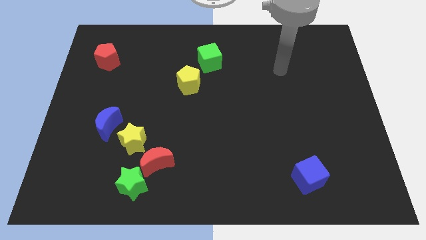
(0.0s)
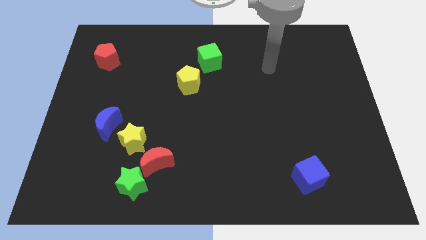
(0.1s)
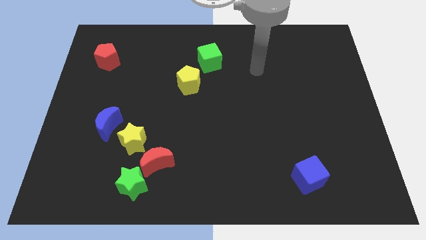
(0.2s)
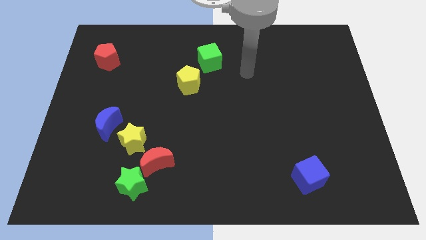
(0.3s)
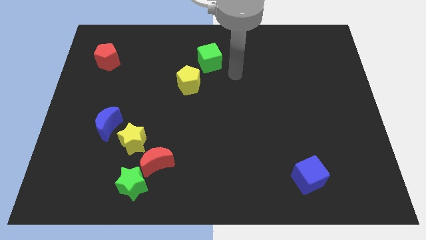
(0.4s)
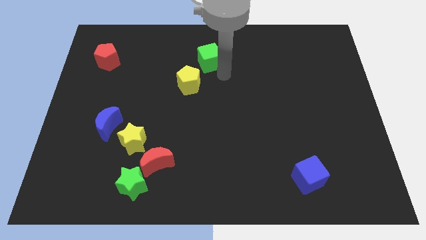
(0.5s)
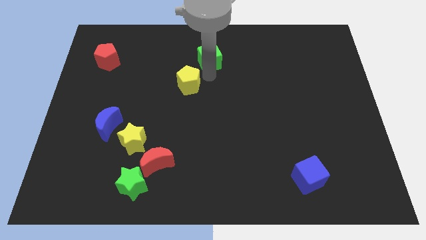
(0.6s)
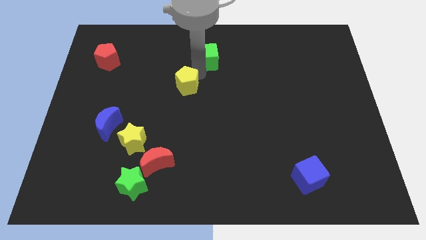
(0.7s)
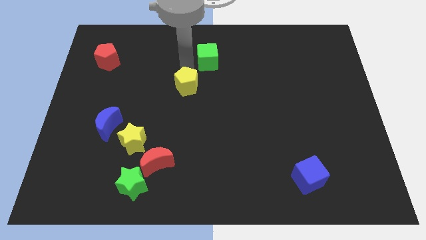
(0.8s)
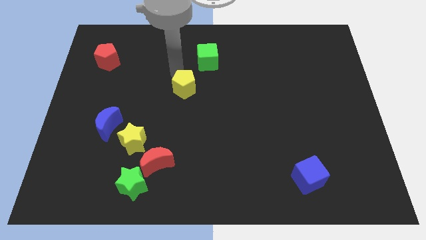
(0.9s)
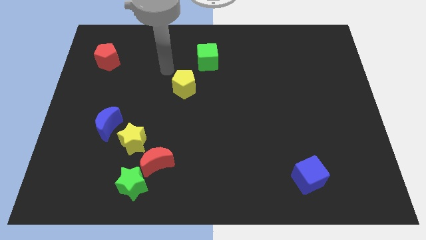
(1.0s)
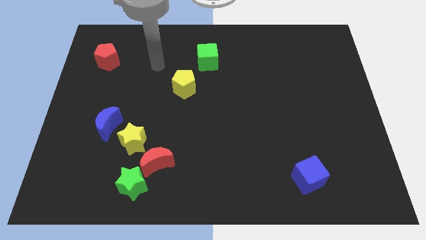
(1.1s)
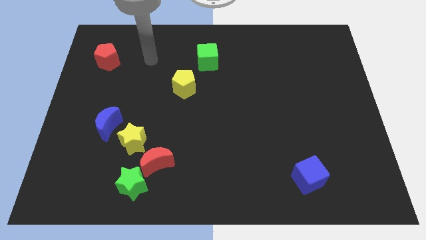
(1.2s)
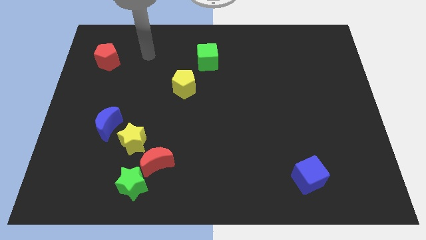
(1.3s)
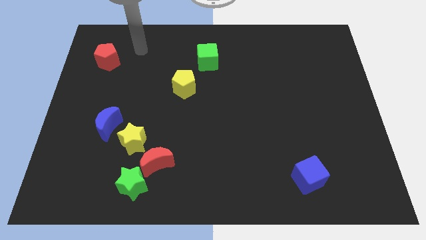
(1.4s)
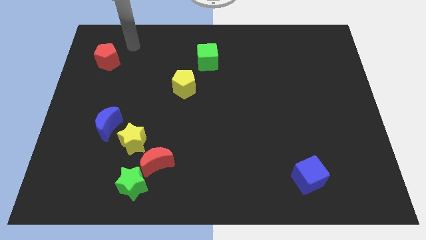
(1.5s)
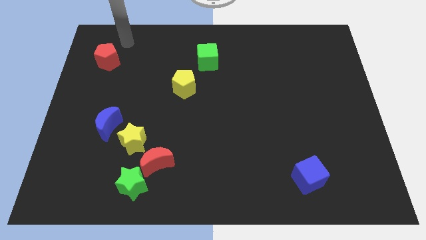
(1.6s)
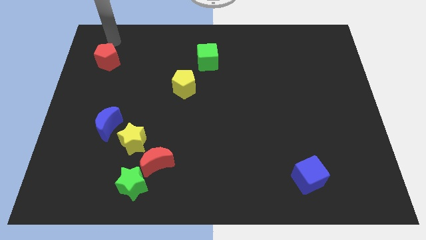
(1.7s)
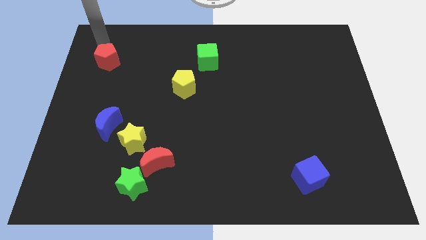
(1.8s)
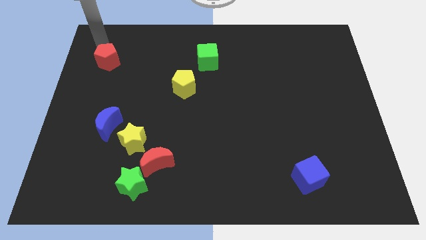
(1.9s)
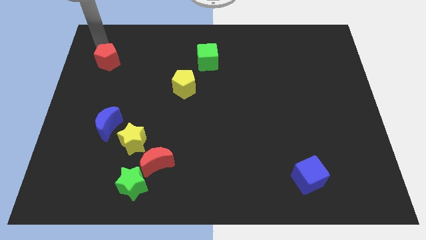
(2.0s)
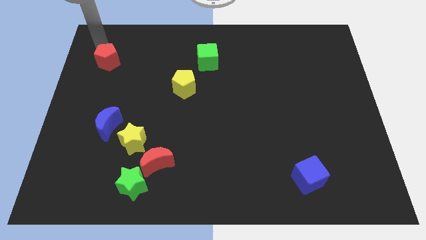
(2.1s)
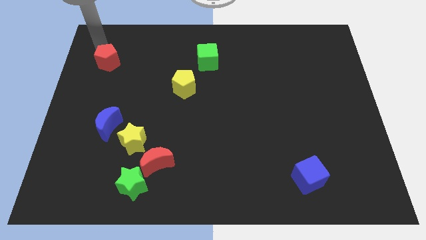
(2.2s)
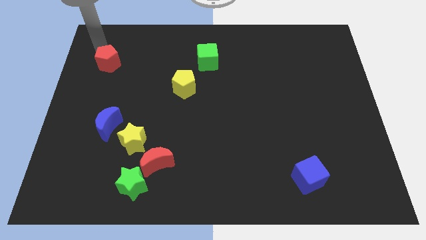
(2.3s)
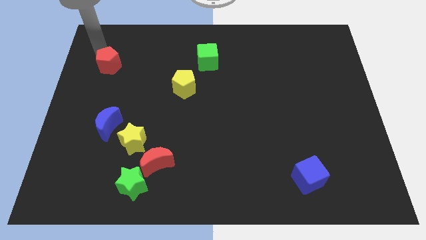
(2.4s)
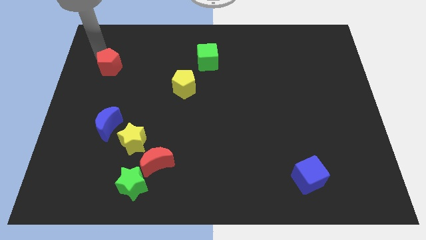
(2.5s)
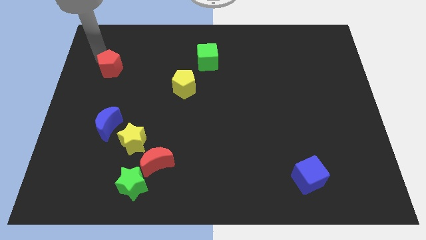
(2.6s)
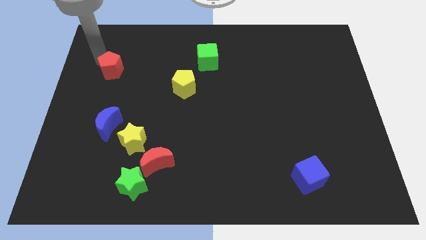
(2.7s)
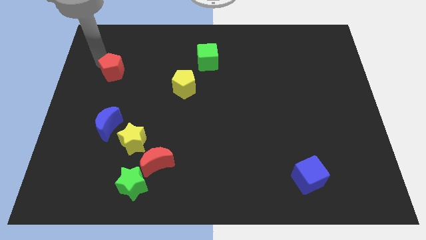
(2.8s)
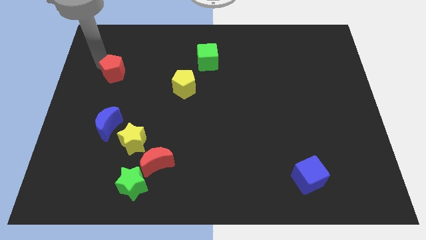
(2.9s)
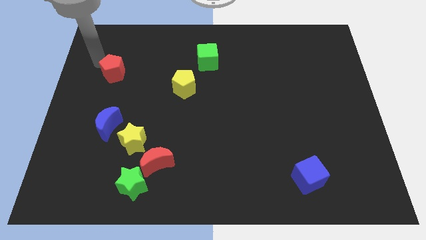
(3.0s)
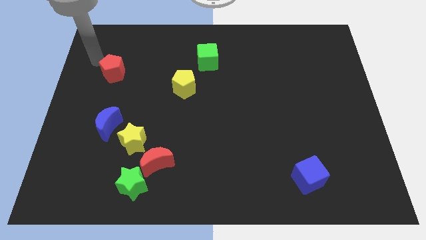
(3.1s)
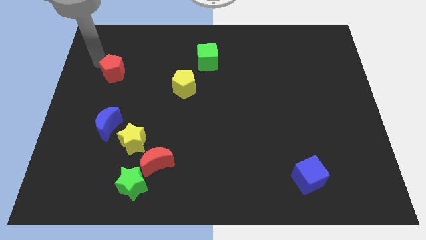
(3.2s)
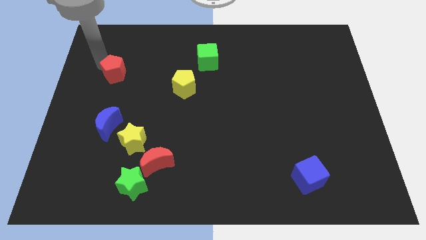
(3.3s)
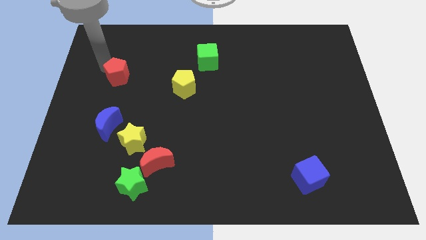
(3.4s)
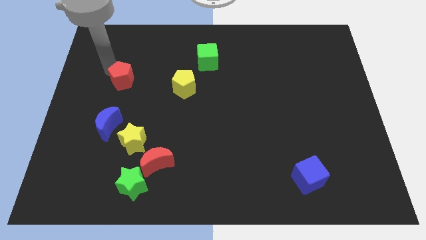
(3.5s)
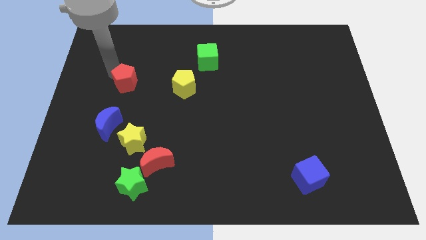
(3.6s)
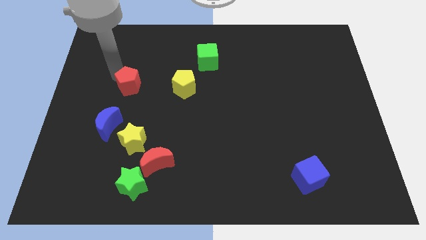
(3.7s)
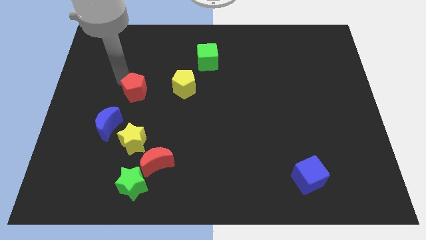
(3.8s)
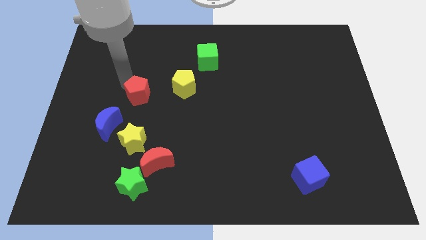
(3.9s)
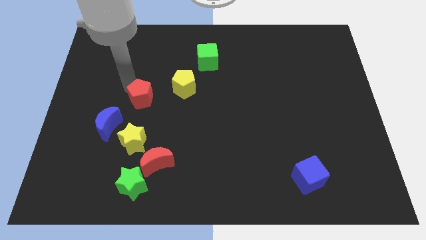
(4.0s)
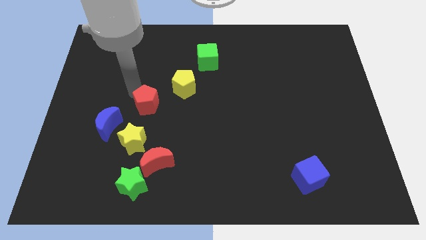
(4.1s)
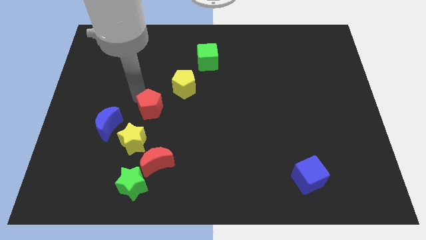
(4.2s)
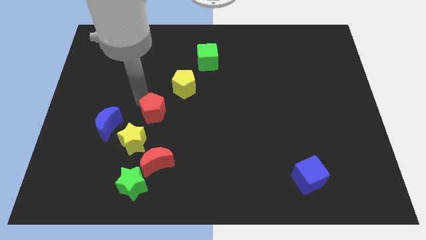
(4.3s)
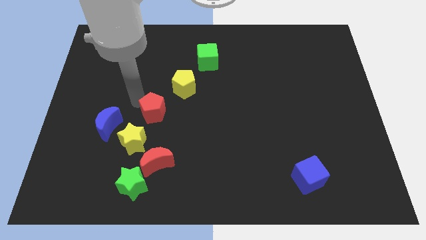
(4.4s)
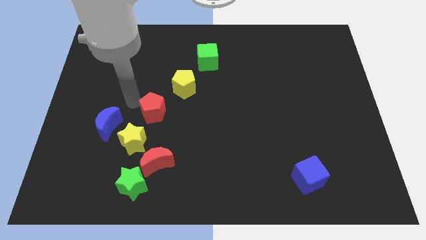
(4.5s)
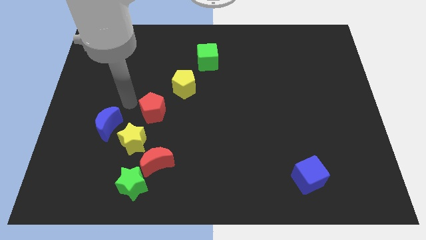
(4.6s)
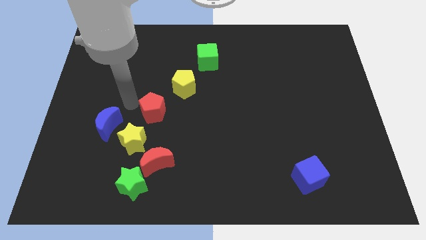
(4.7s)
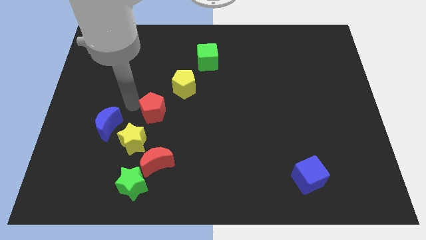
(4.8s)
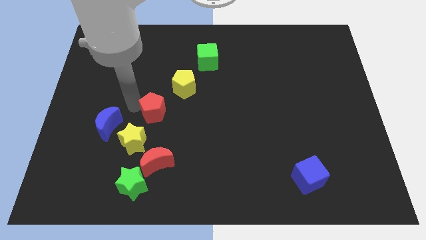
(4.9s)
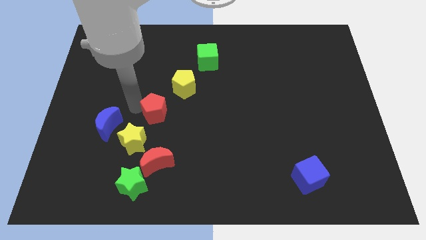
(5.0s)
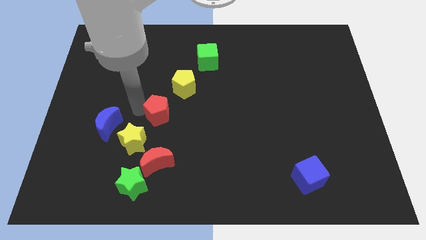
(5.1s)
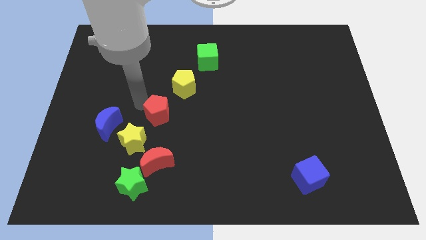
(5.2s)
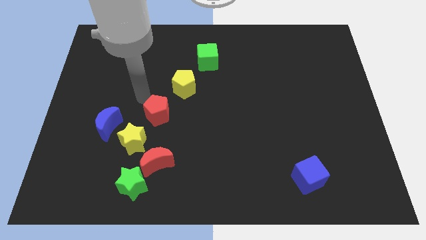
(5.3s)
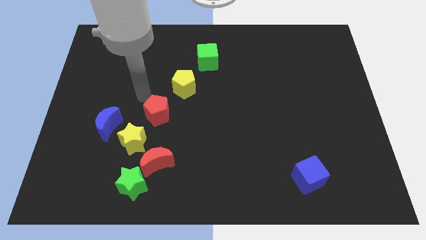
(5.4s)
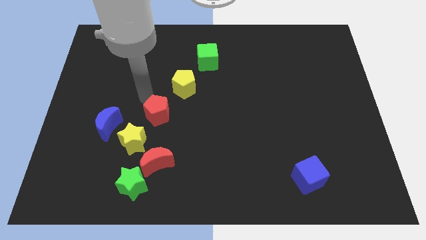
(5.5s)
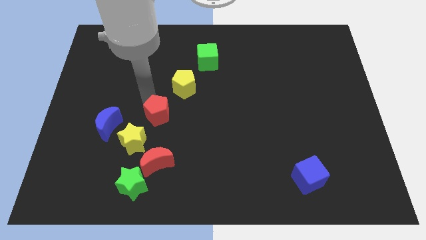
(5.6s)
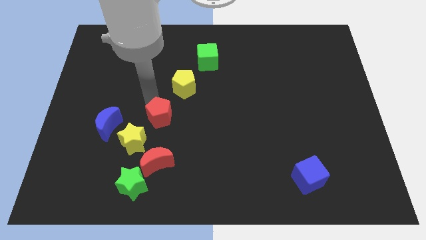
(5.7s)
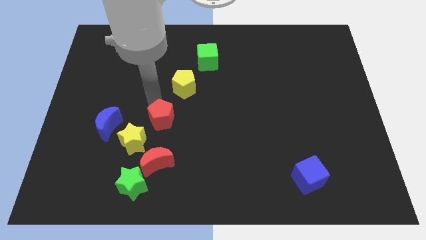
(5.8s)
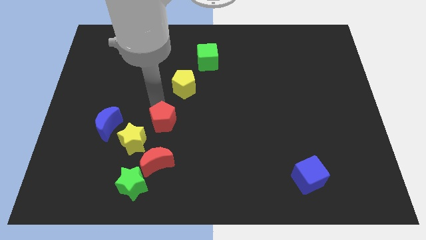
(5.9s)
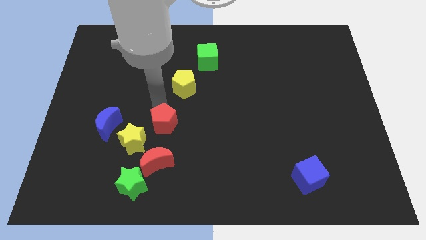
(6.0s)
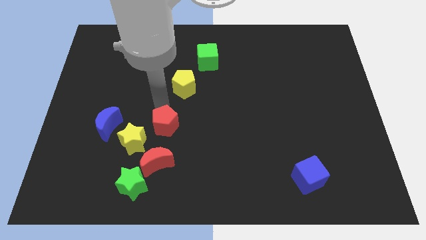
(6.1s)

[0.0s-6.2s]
push the red pentagon right of the yellow star
